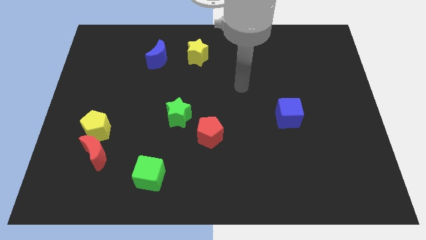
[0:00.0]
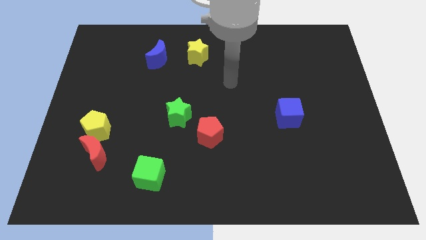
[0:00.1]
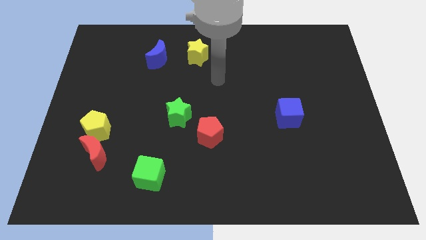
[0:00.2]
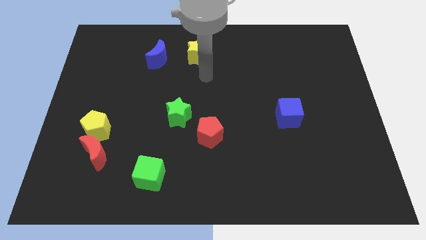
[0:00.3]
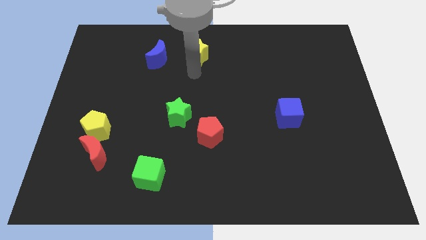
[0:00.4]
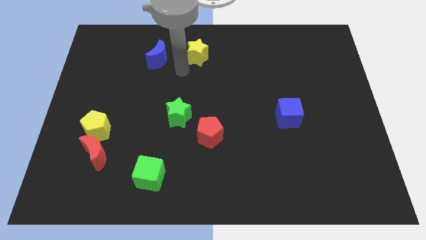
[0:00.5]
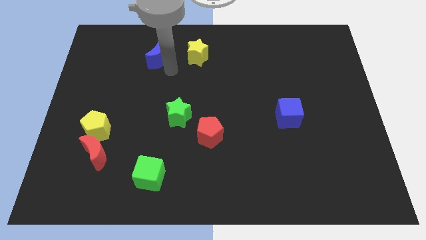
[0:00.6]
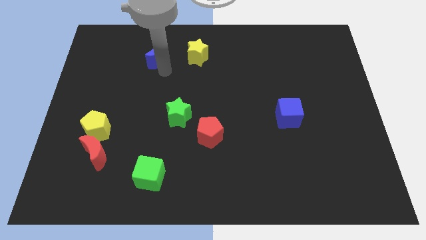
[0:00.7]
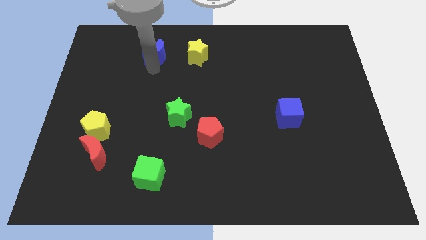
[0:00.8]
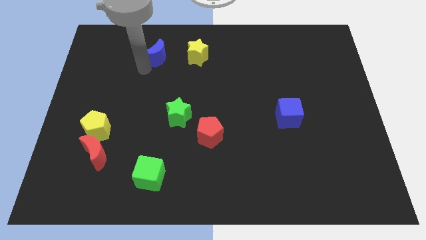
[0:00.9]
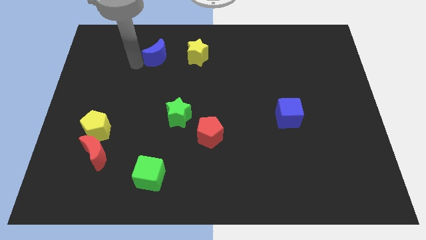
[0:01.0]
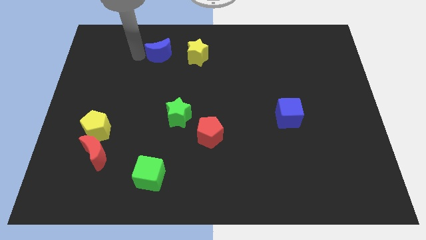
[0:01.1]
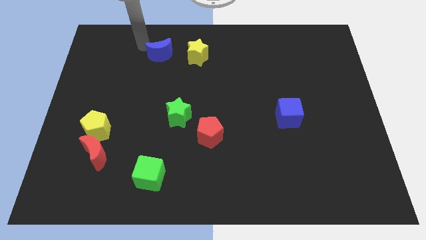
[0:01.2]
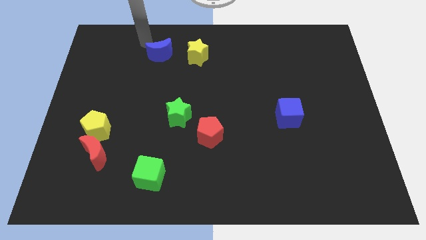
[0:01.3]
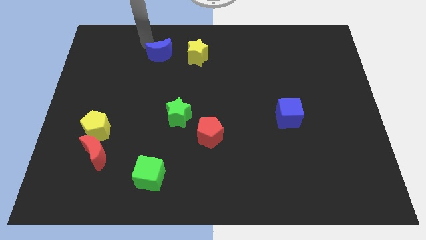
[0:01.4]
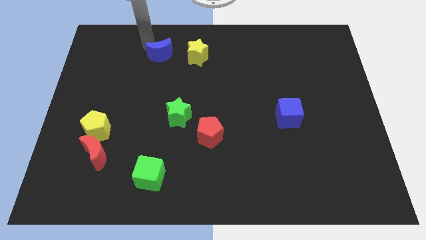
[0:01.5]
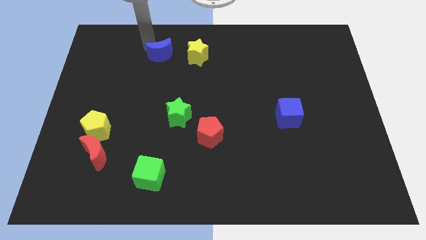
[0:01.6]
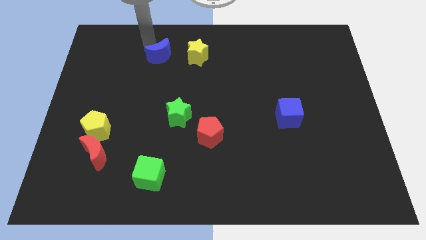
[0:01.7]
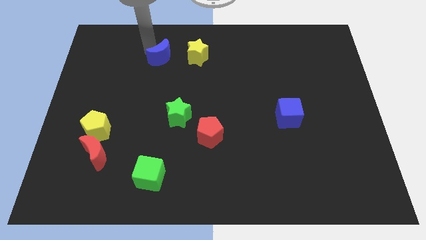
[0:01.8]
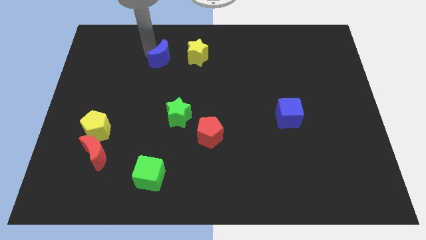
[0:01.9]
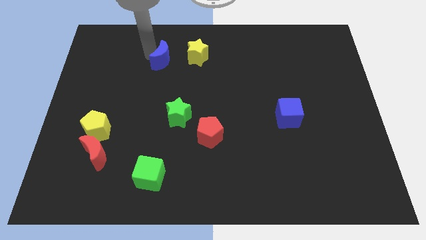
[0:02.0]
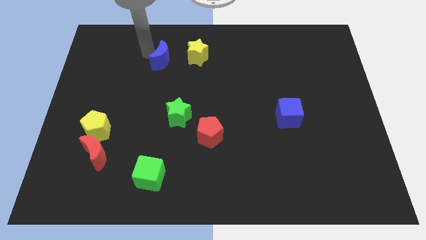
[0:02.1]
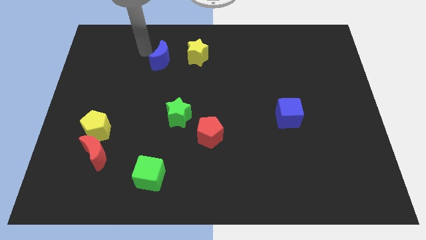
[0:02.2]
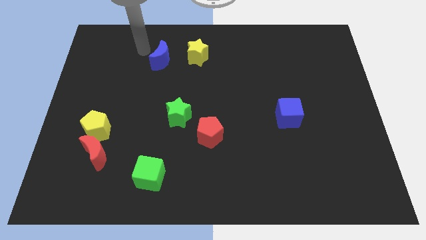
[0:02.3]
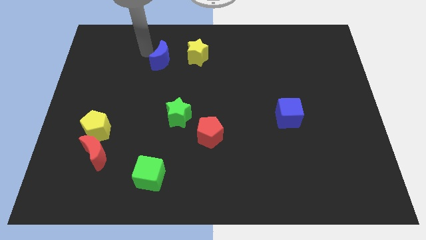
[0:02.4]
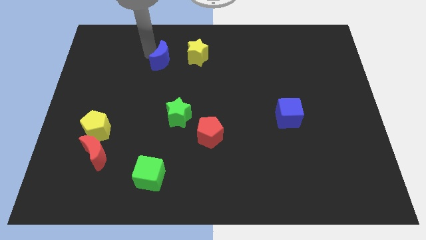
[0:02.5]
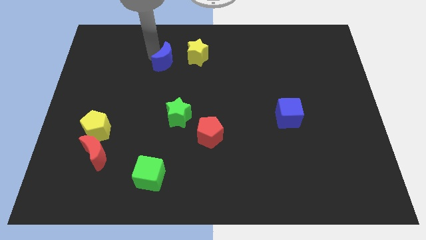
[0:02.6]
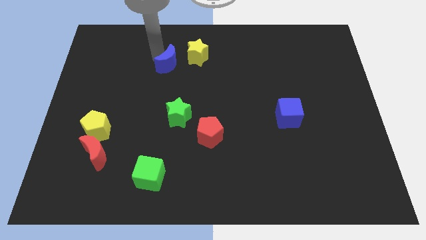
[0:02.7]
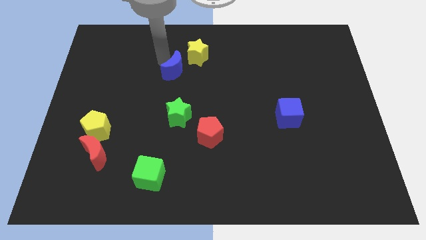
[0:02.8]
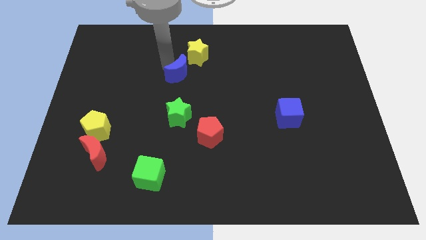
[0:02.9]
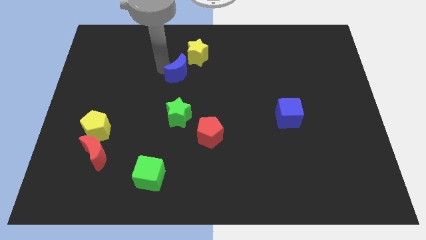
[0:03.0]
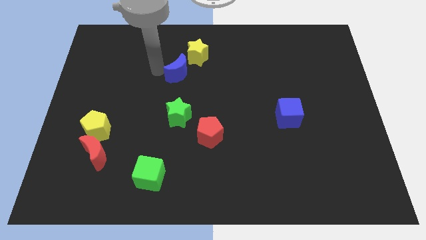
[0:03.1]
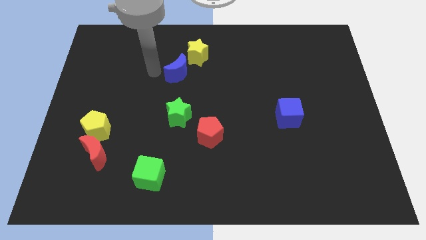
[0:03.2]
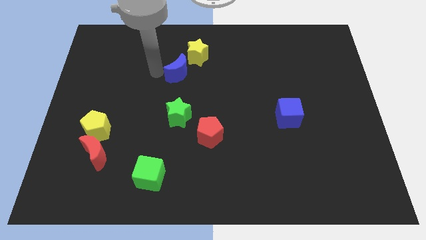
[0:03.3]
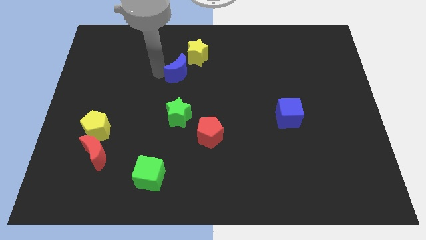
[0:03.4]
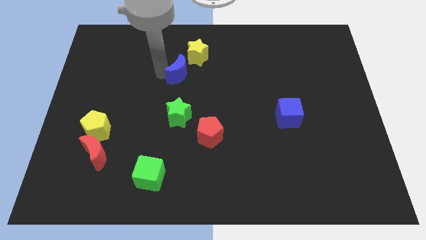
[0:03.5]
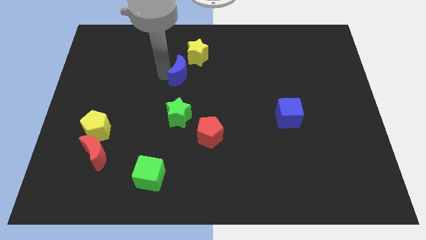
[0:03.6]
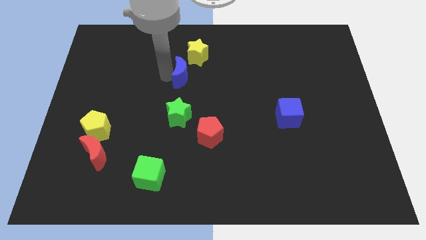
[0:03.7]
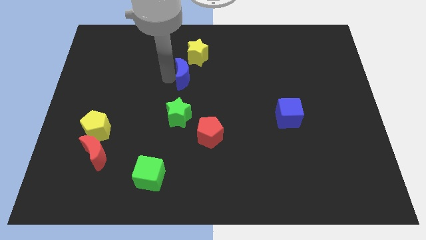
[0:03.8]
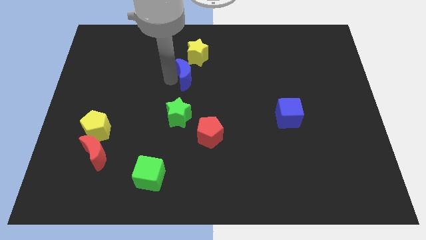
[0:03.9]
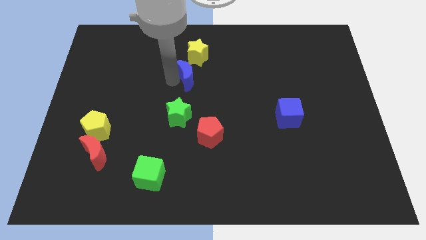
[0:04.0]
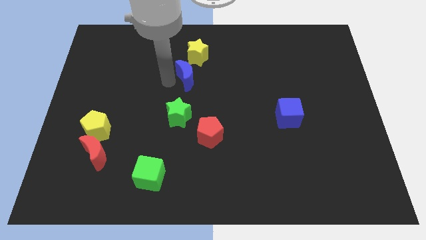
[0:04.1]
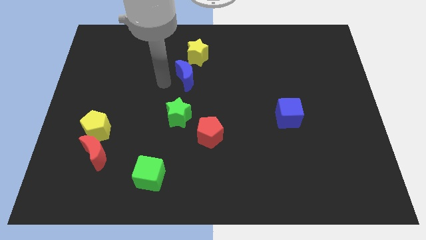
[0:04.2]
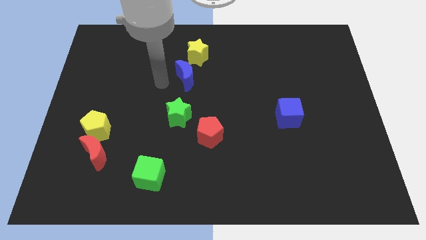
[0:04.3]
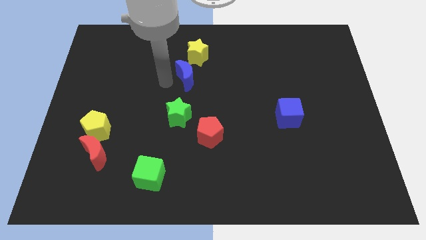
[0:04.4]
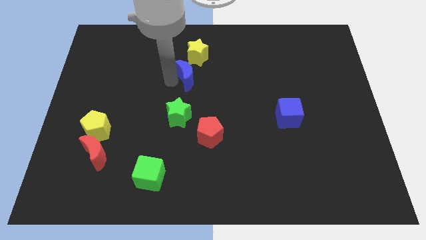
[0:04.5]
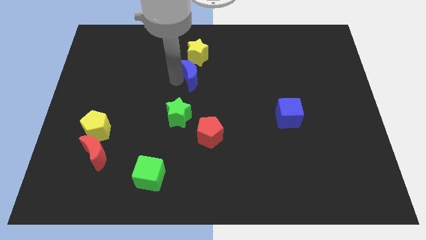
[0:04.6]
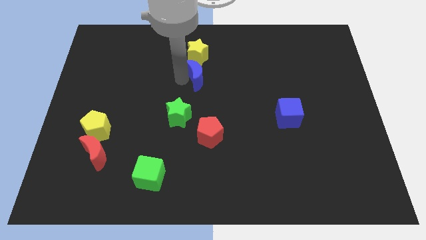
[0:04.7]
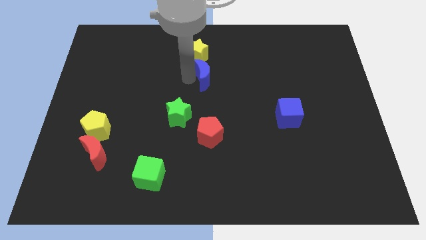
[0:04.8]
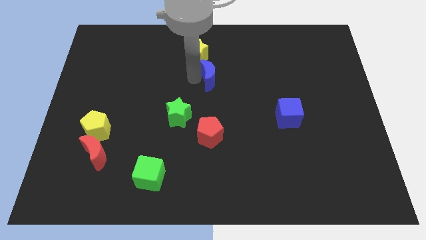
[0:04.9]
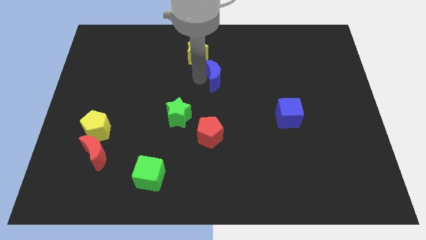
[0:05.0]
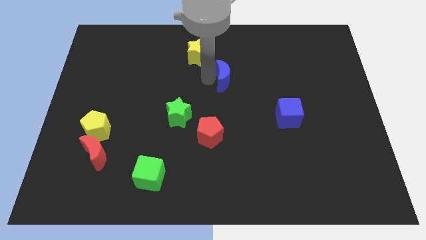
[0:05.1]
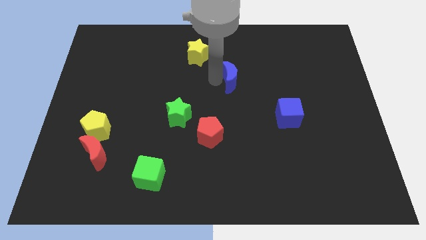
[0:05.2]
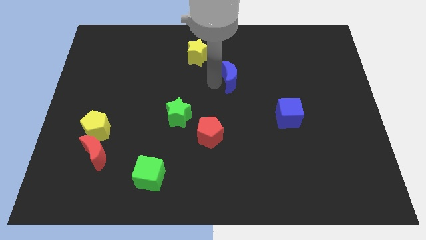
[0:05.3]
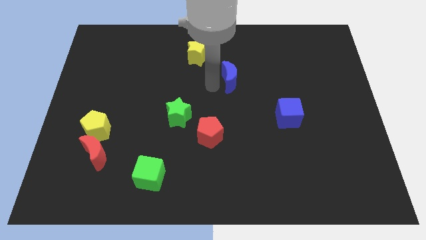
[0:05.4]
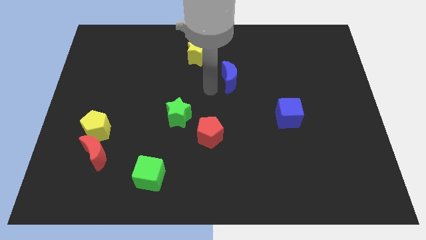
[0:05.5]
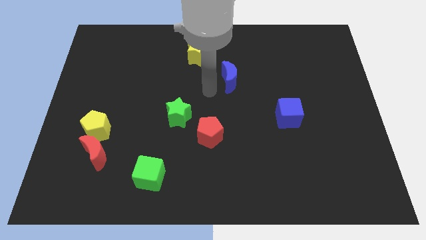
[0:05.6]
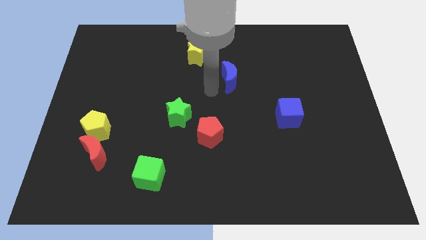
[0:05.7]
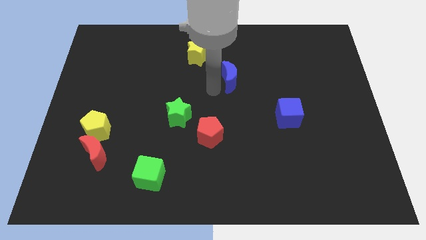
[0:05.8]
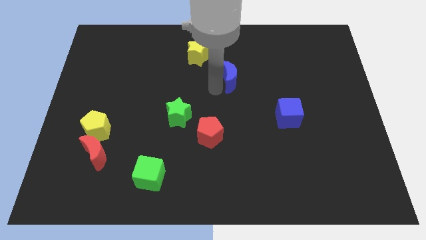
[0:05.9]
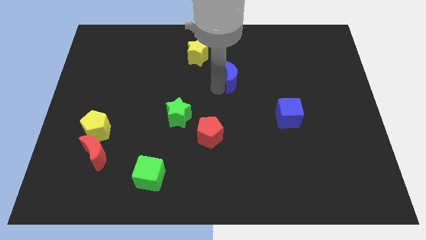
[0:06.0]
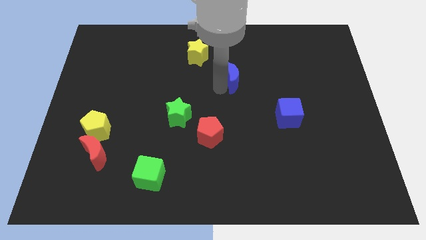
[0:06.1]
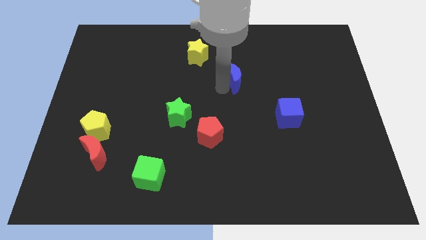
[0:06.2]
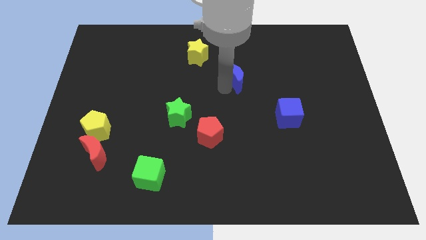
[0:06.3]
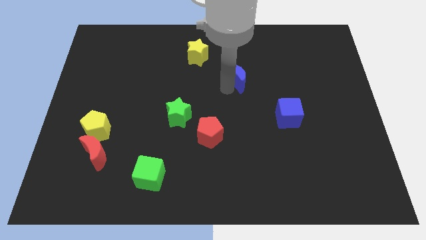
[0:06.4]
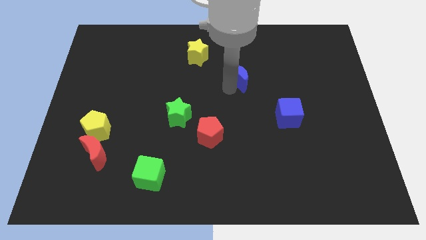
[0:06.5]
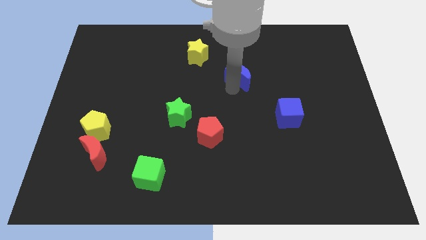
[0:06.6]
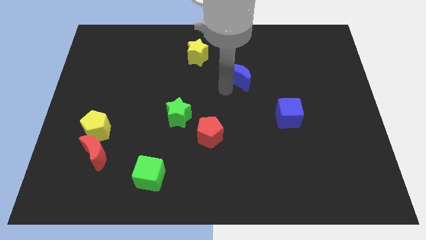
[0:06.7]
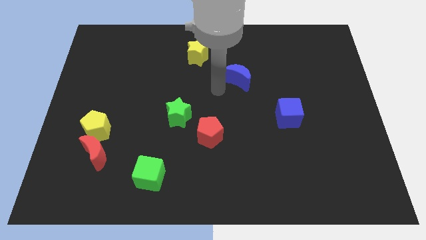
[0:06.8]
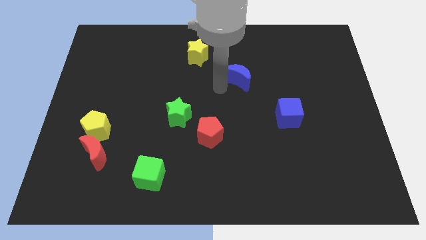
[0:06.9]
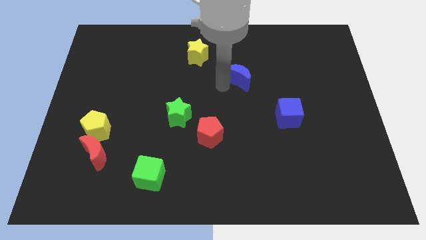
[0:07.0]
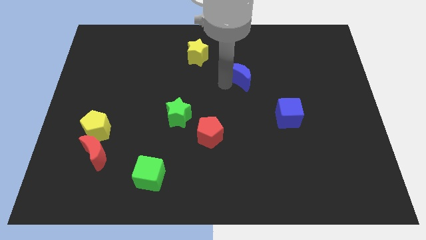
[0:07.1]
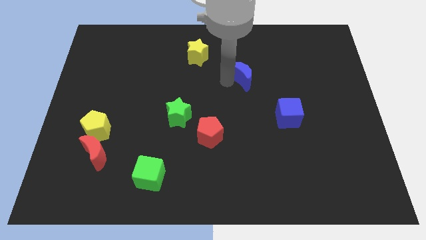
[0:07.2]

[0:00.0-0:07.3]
push the blue moon to the right

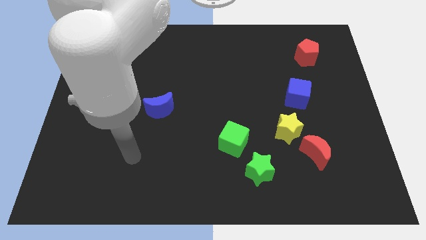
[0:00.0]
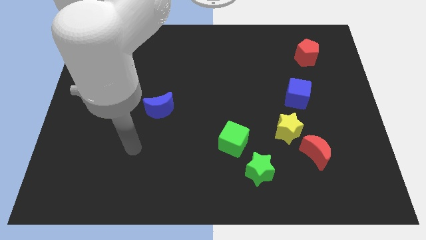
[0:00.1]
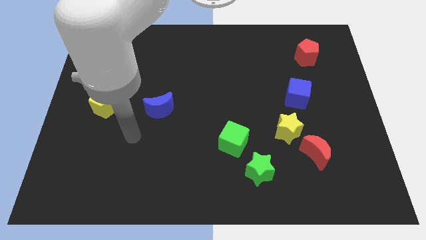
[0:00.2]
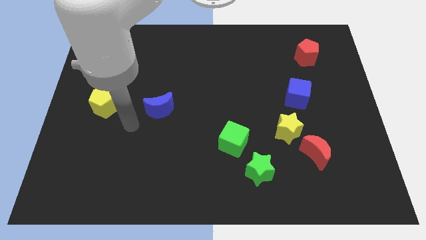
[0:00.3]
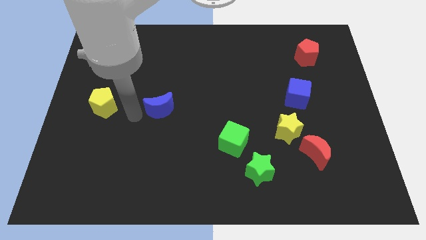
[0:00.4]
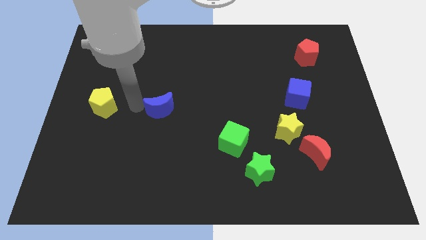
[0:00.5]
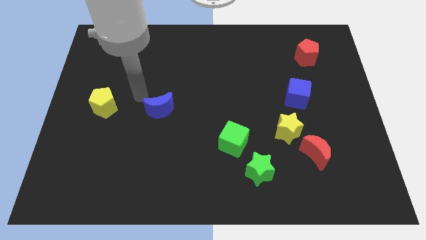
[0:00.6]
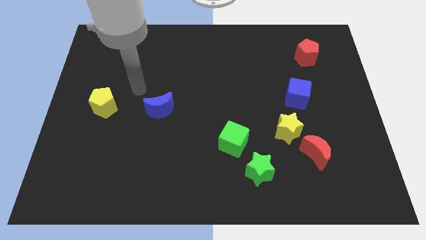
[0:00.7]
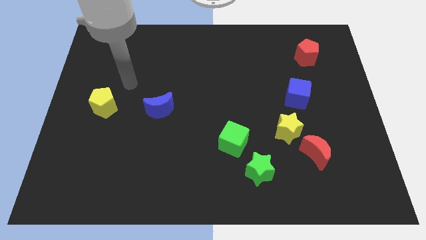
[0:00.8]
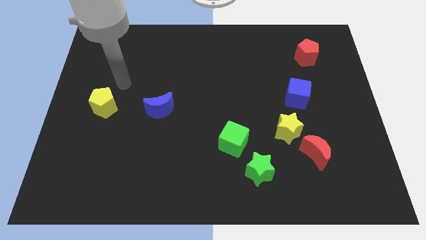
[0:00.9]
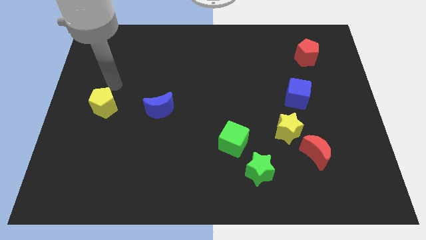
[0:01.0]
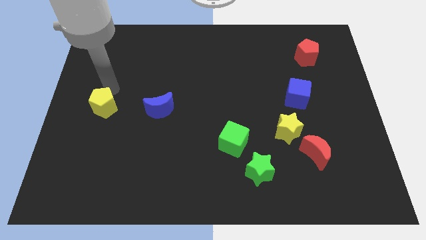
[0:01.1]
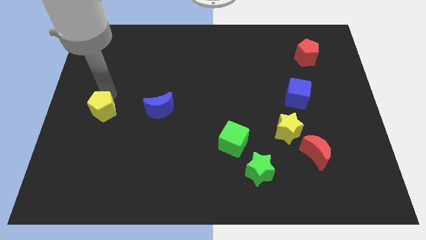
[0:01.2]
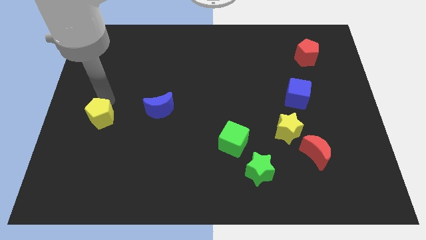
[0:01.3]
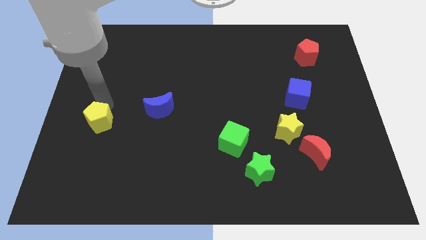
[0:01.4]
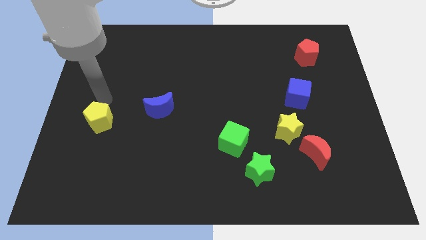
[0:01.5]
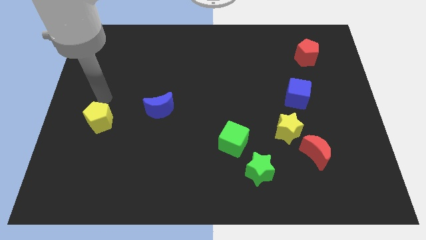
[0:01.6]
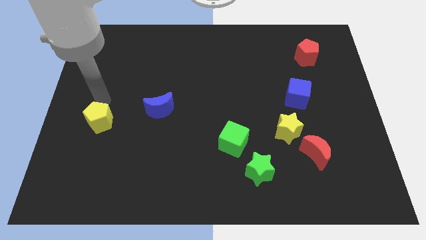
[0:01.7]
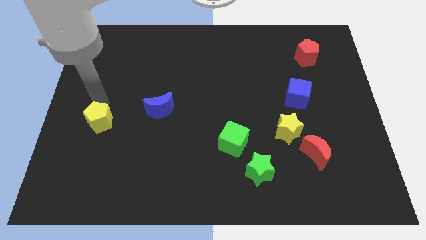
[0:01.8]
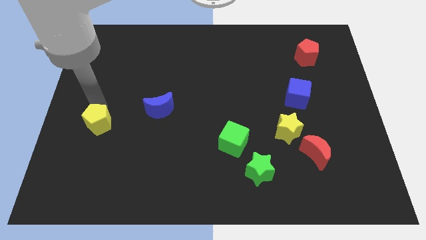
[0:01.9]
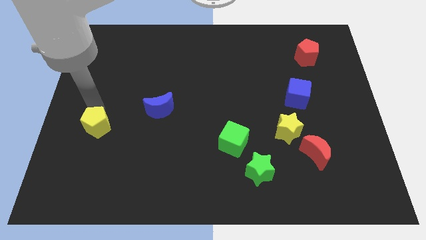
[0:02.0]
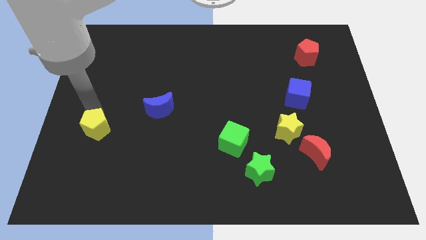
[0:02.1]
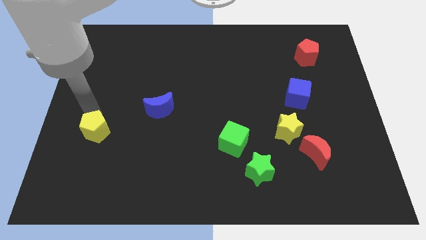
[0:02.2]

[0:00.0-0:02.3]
slightly move the yellow pentagon downwards
